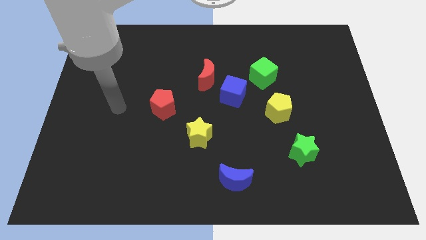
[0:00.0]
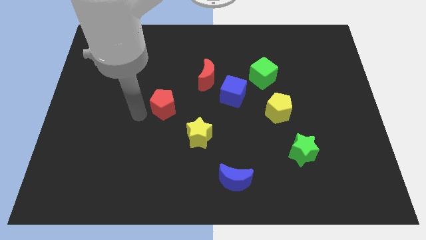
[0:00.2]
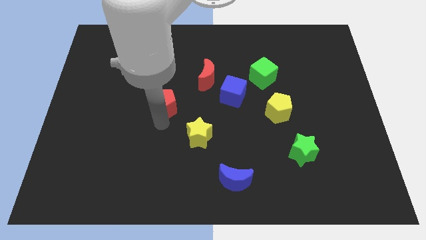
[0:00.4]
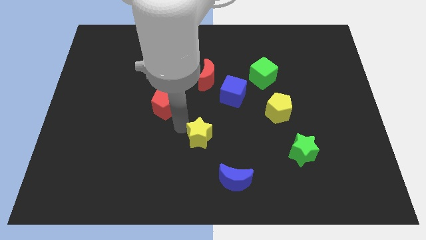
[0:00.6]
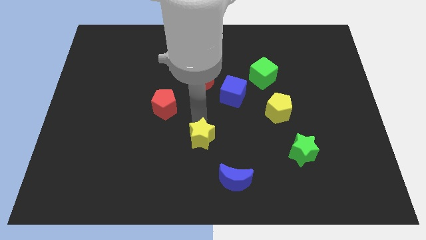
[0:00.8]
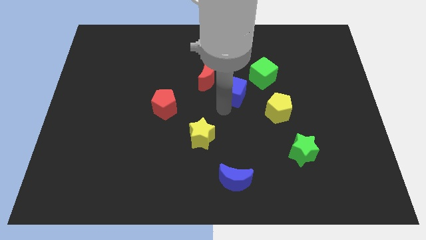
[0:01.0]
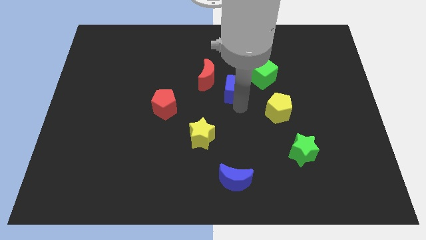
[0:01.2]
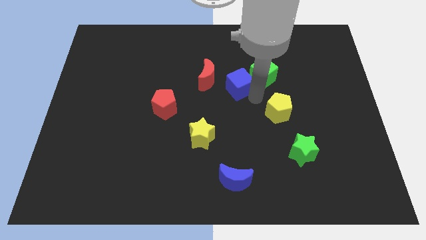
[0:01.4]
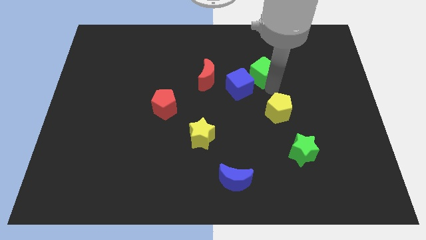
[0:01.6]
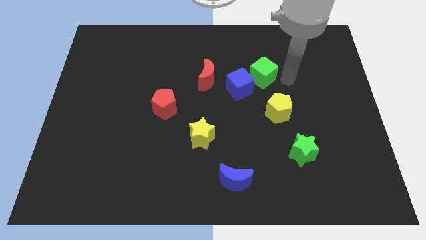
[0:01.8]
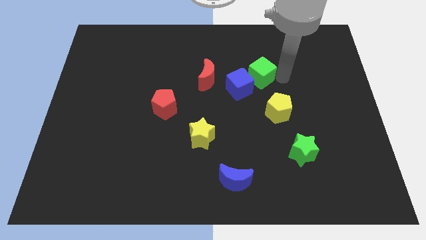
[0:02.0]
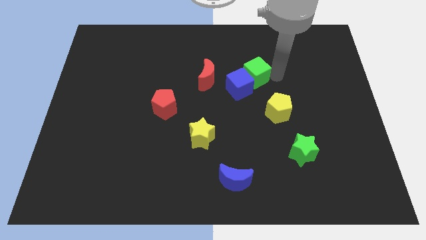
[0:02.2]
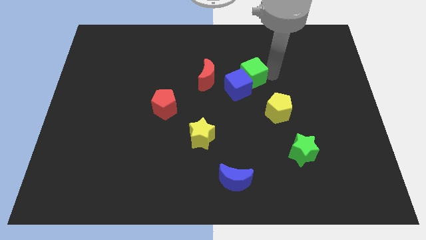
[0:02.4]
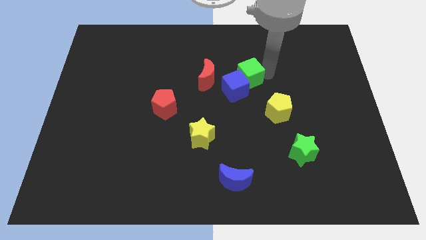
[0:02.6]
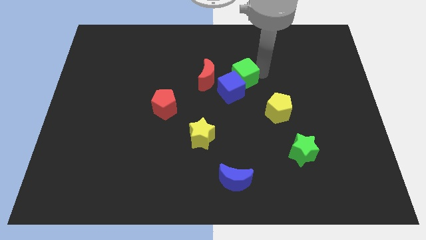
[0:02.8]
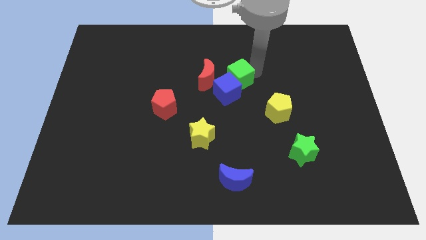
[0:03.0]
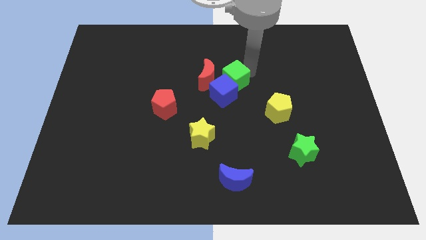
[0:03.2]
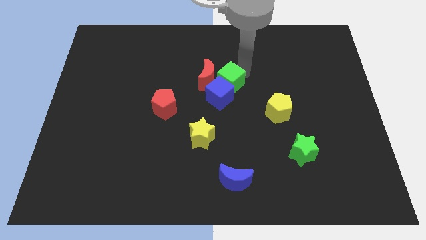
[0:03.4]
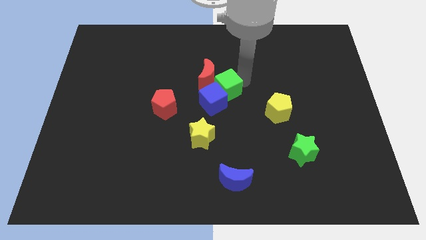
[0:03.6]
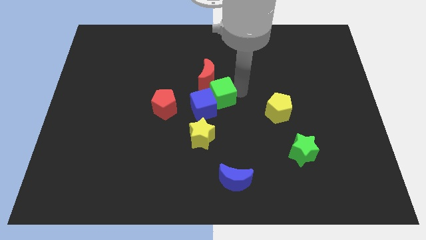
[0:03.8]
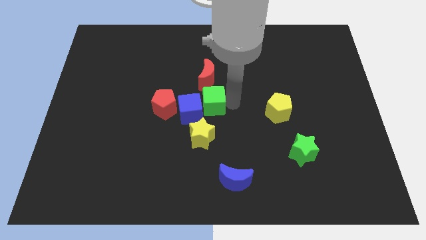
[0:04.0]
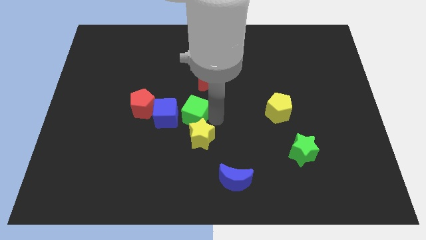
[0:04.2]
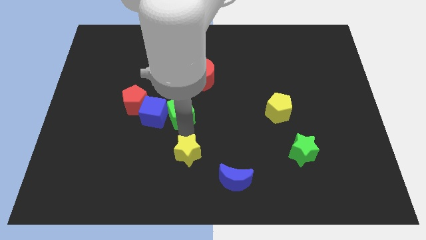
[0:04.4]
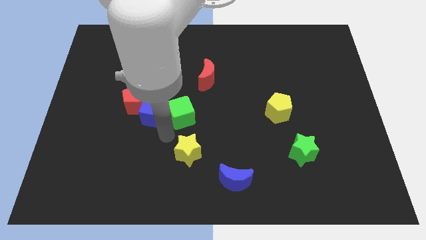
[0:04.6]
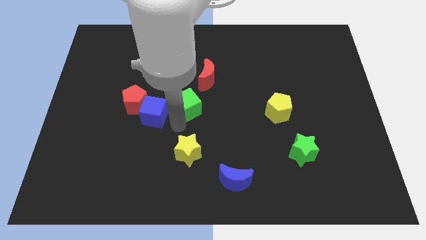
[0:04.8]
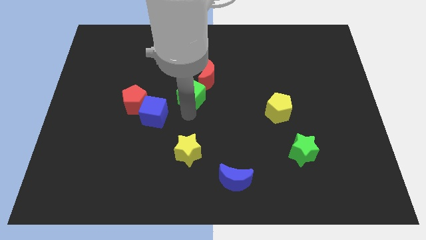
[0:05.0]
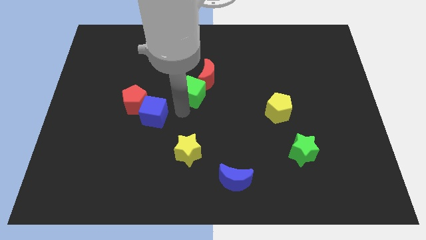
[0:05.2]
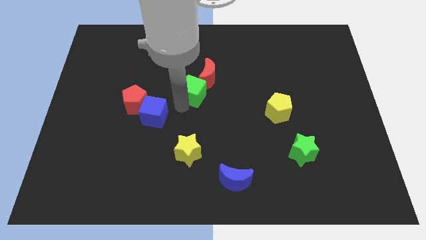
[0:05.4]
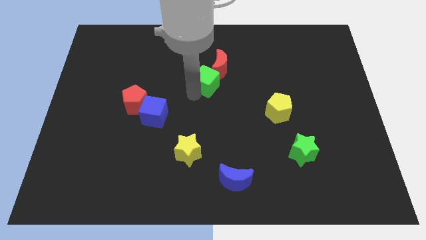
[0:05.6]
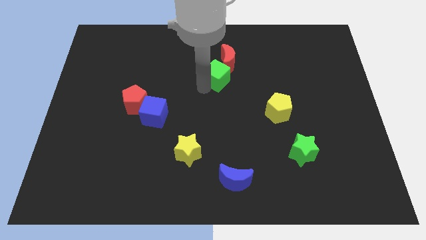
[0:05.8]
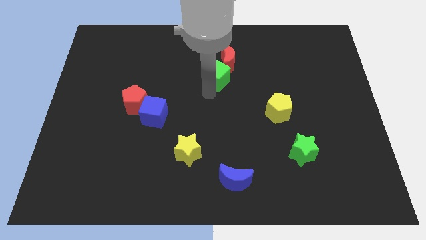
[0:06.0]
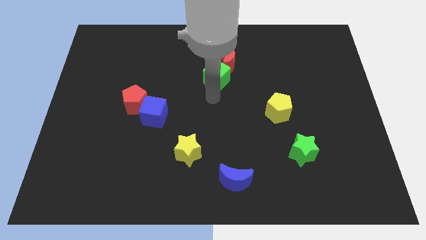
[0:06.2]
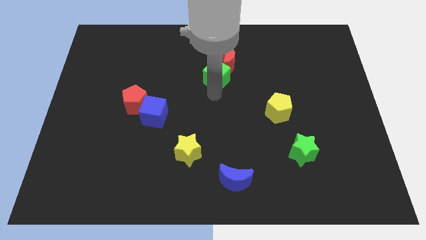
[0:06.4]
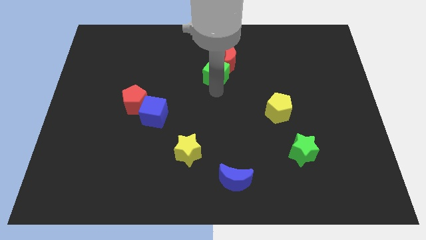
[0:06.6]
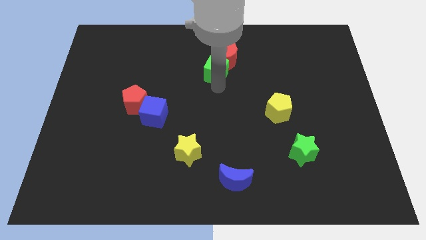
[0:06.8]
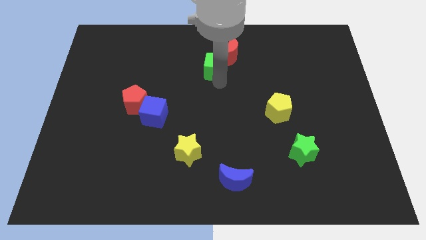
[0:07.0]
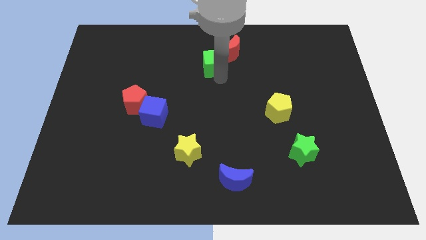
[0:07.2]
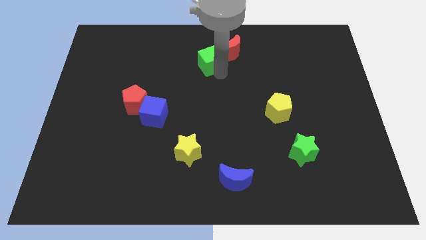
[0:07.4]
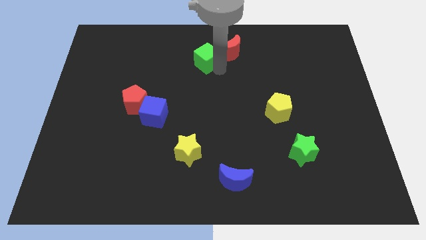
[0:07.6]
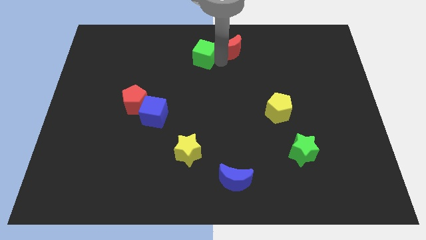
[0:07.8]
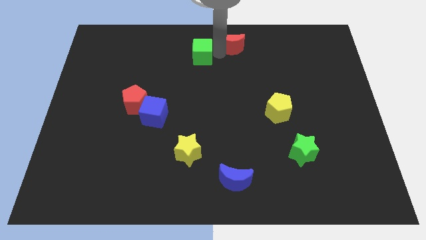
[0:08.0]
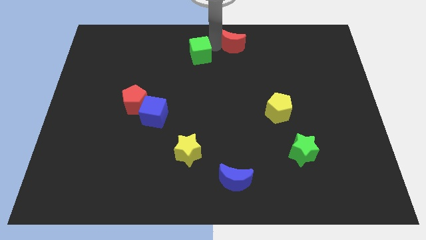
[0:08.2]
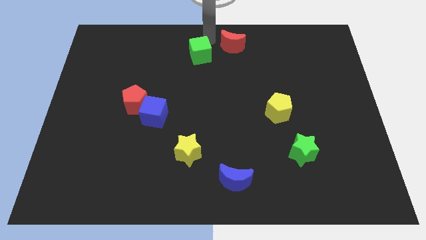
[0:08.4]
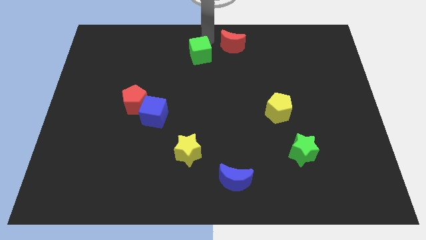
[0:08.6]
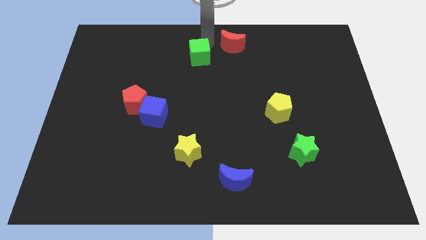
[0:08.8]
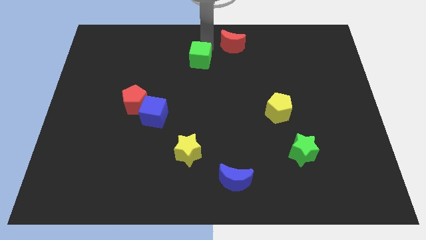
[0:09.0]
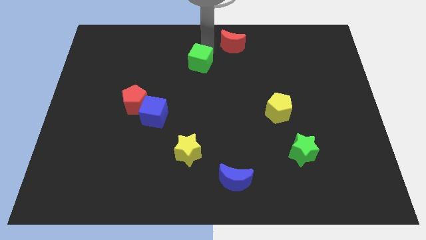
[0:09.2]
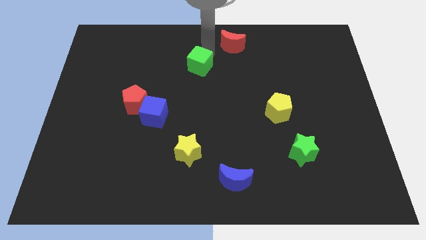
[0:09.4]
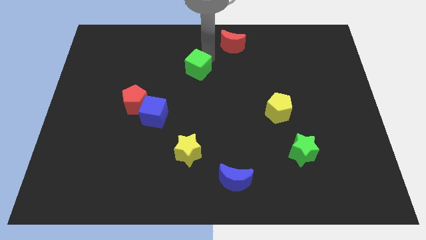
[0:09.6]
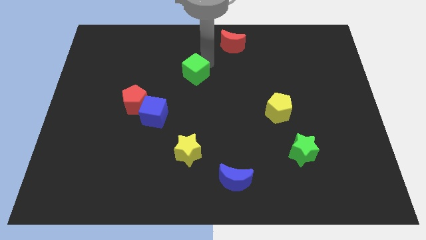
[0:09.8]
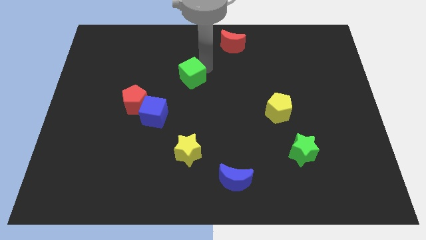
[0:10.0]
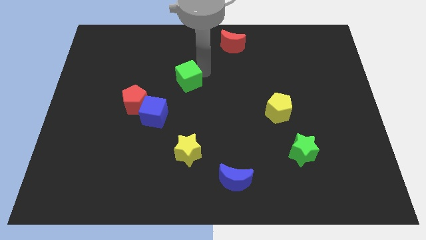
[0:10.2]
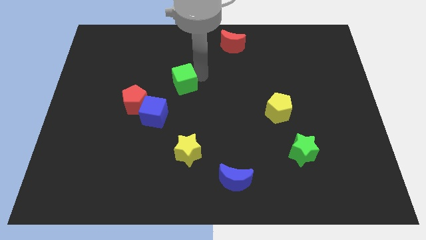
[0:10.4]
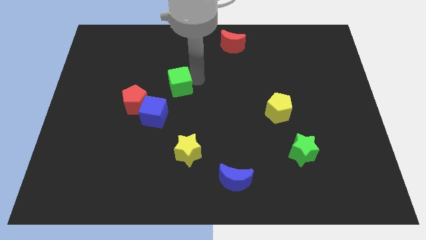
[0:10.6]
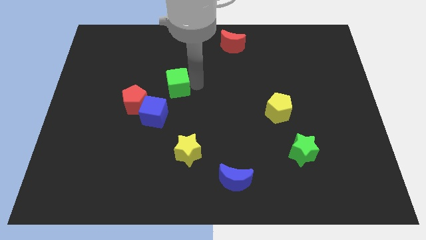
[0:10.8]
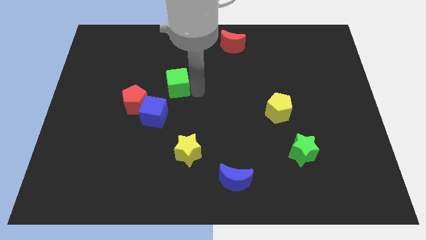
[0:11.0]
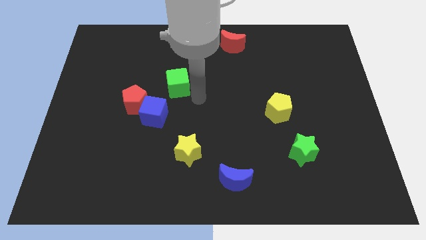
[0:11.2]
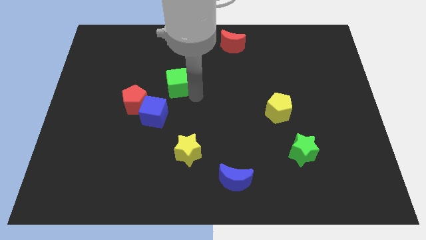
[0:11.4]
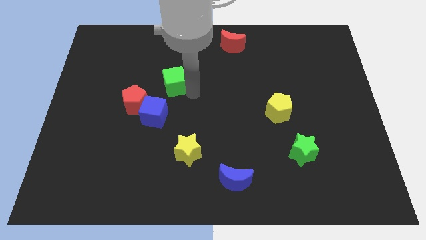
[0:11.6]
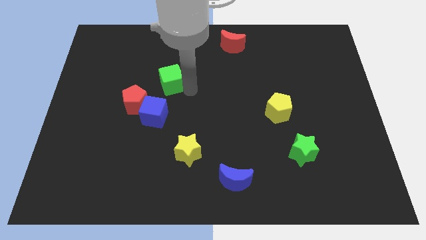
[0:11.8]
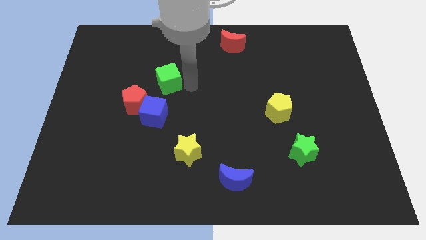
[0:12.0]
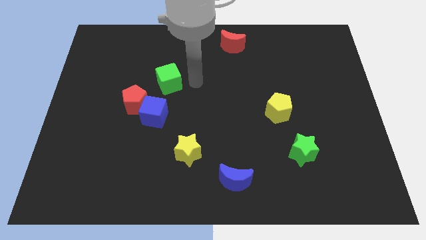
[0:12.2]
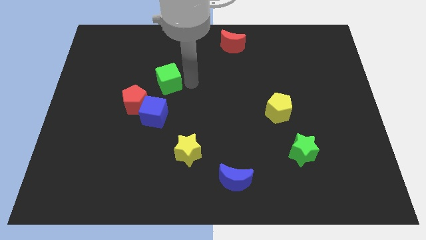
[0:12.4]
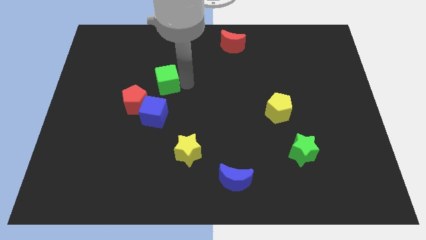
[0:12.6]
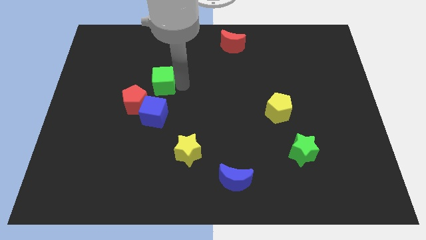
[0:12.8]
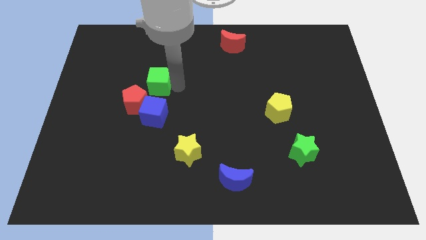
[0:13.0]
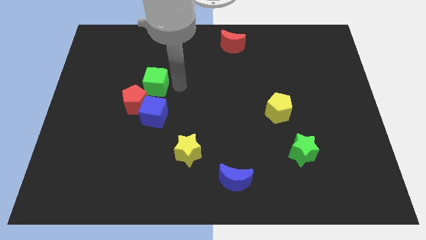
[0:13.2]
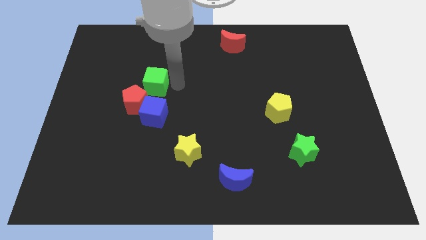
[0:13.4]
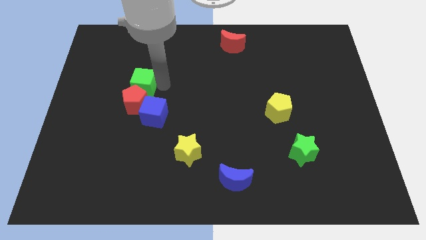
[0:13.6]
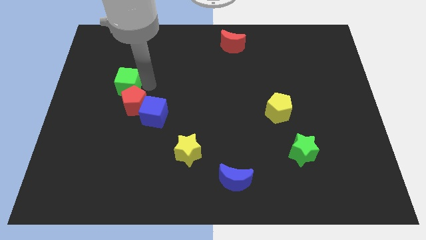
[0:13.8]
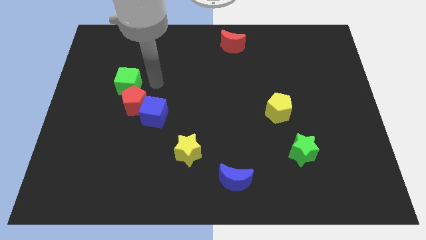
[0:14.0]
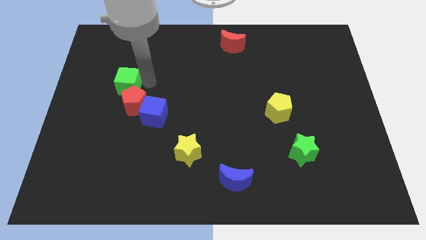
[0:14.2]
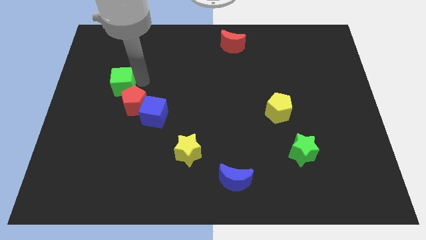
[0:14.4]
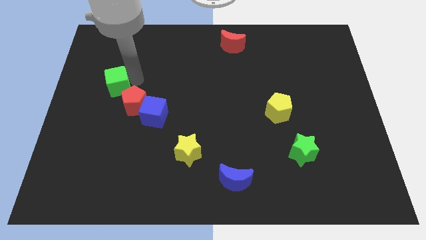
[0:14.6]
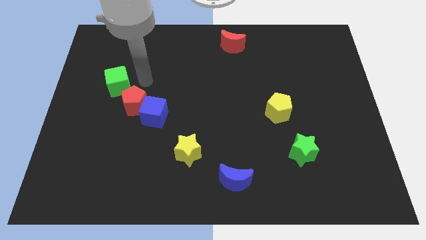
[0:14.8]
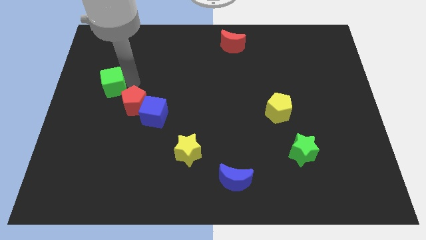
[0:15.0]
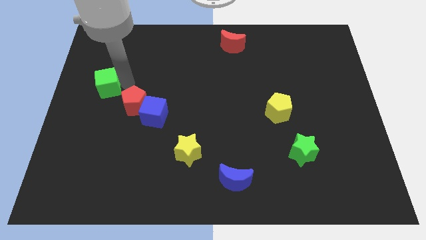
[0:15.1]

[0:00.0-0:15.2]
slide the green cube to the center left
